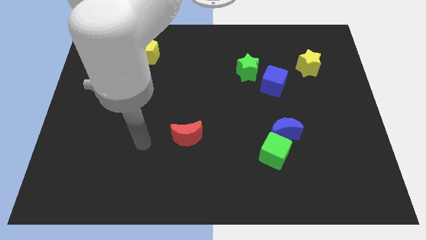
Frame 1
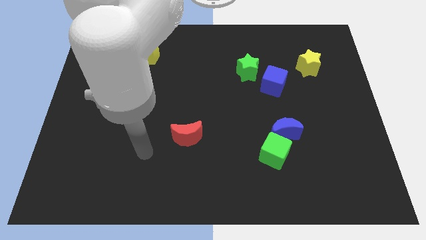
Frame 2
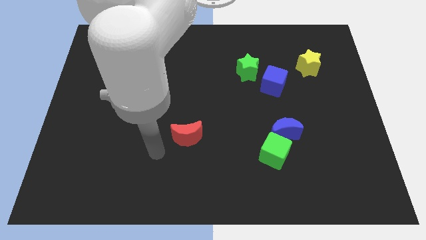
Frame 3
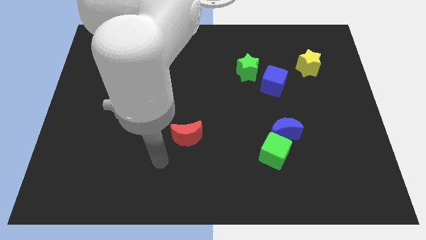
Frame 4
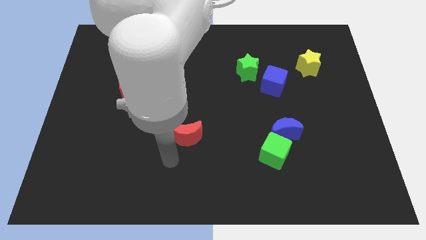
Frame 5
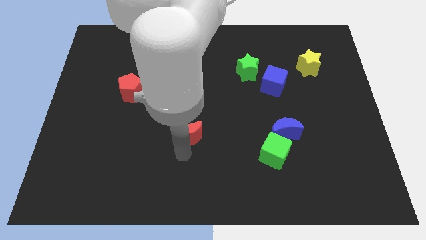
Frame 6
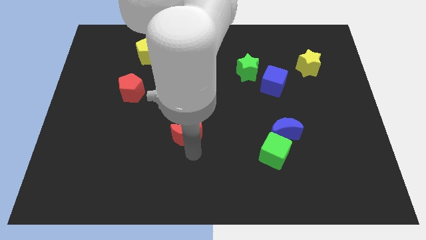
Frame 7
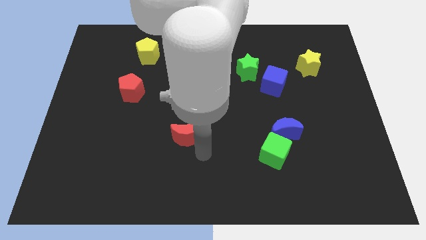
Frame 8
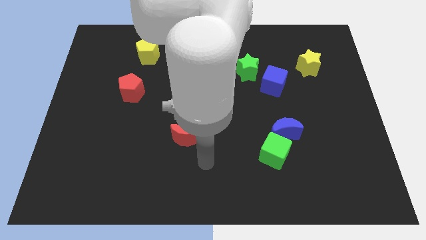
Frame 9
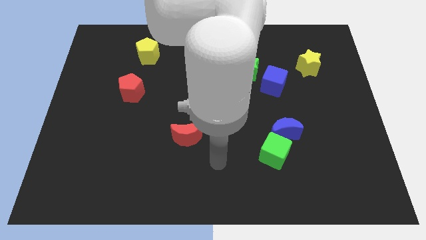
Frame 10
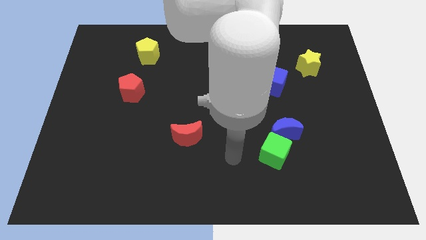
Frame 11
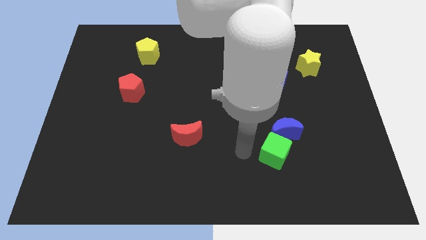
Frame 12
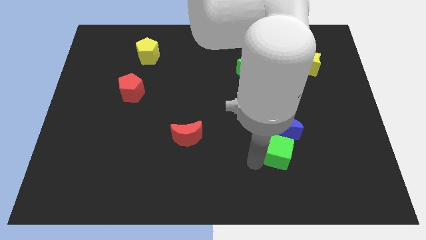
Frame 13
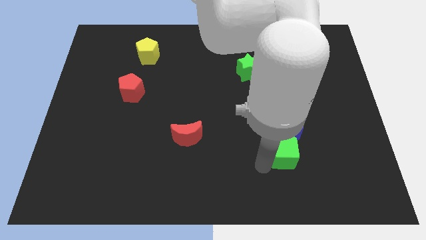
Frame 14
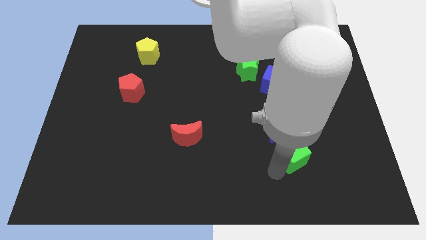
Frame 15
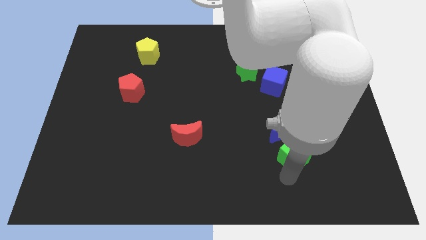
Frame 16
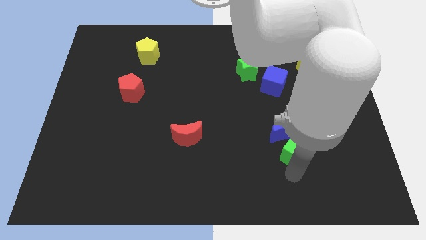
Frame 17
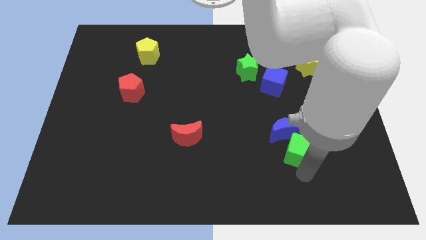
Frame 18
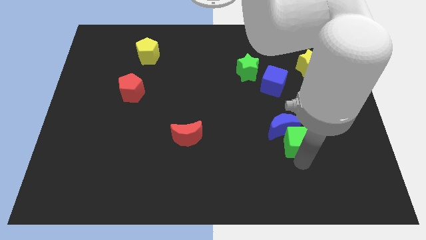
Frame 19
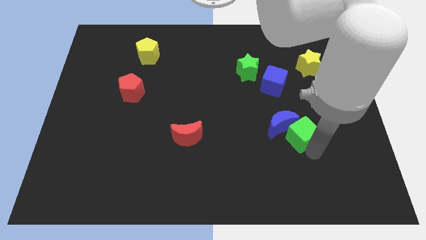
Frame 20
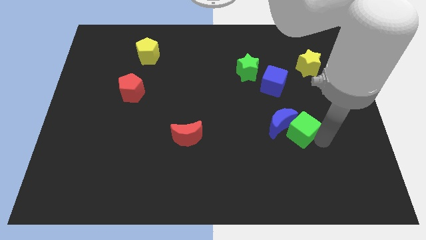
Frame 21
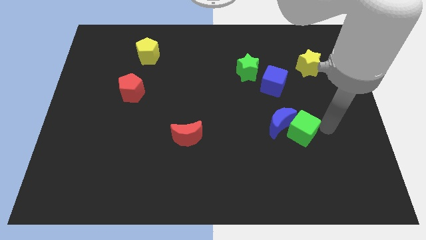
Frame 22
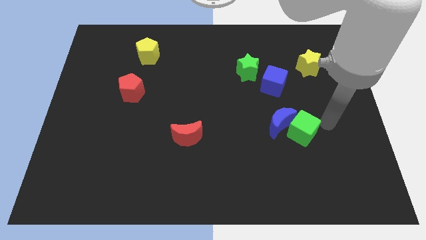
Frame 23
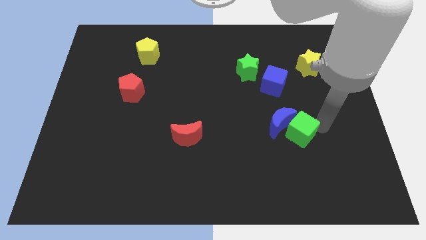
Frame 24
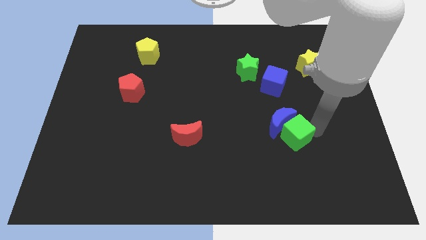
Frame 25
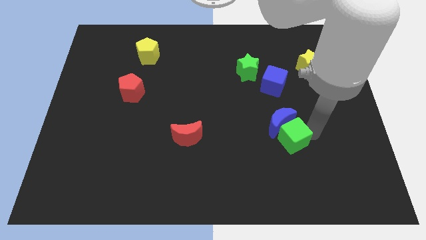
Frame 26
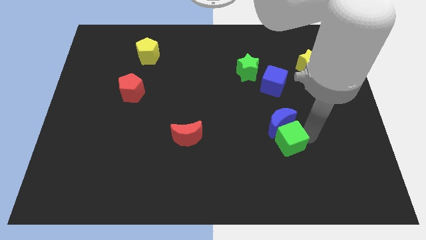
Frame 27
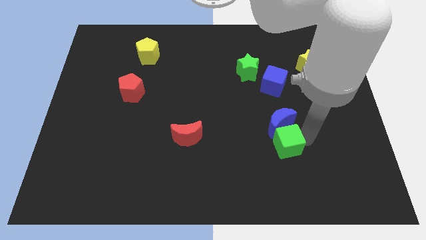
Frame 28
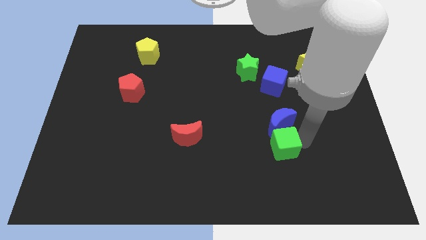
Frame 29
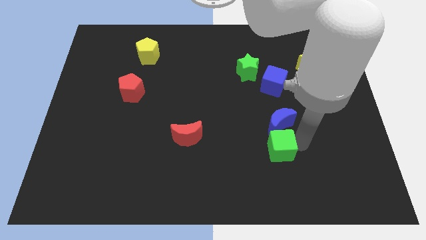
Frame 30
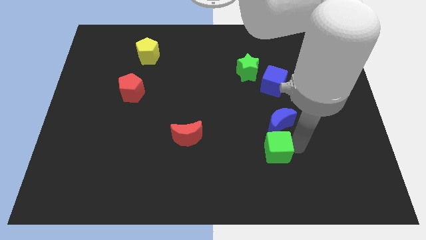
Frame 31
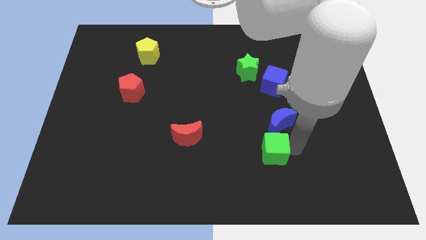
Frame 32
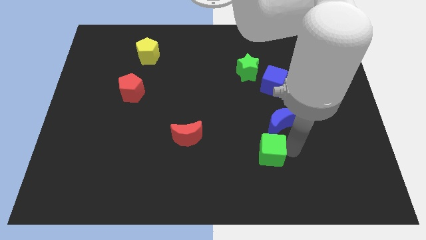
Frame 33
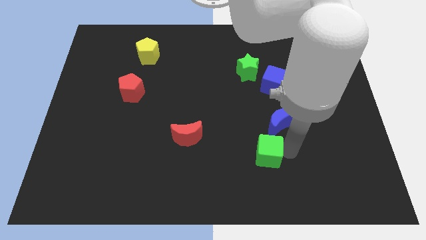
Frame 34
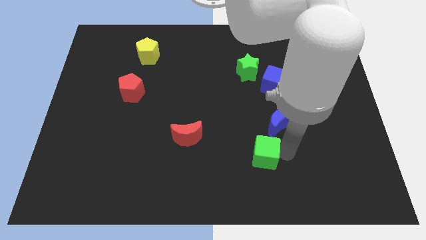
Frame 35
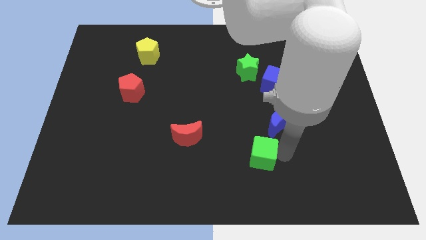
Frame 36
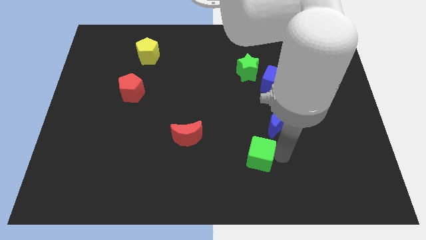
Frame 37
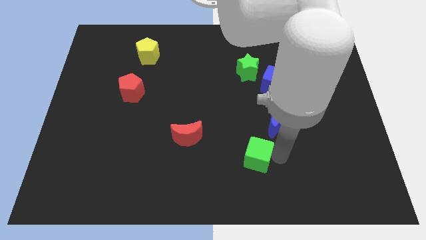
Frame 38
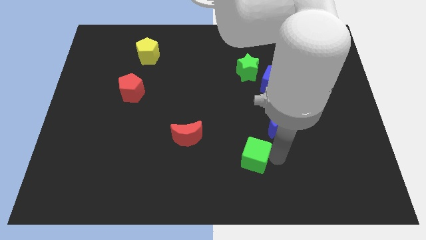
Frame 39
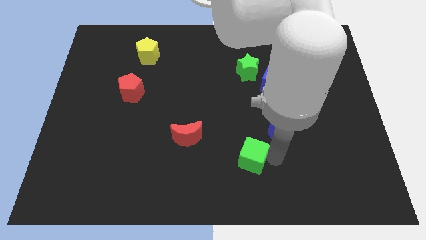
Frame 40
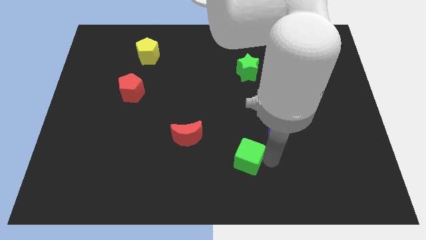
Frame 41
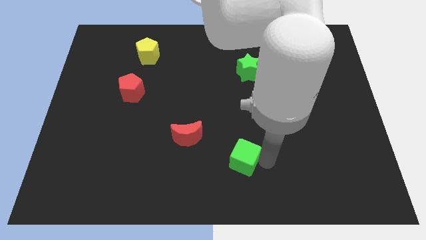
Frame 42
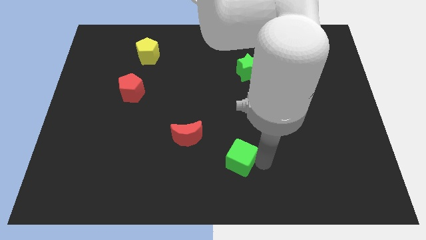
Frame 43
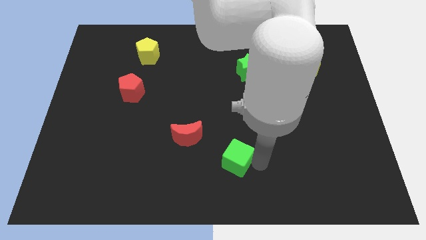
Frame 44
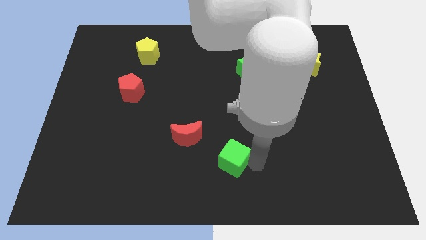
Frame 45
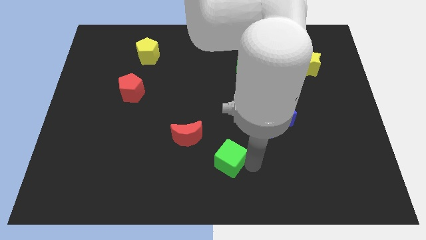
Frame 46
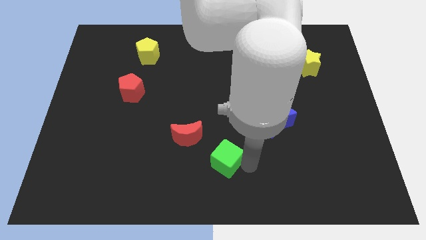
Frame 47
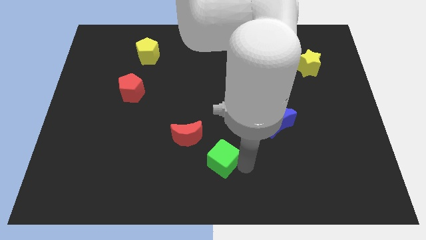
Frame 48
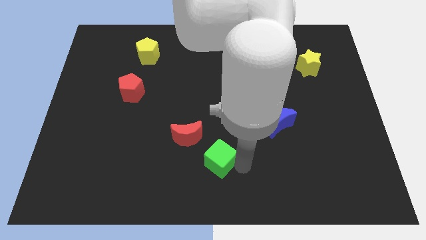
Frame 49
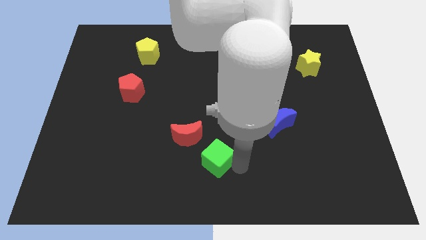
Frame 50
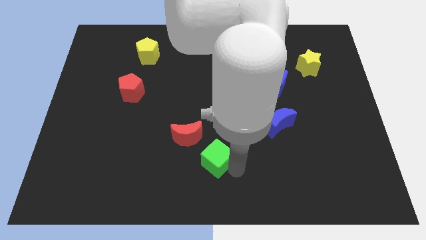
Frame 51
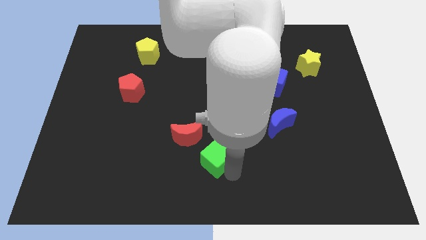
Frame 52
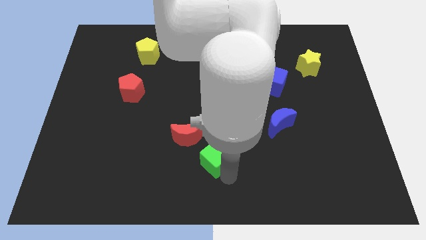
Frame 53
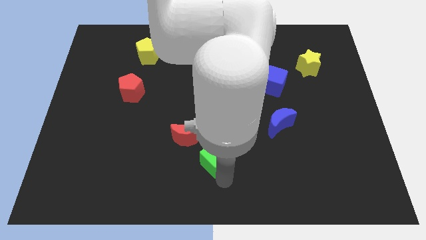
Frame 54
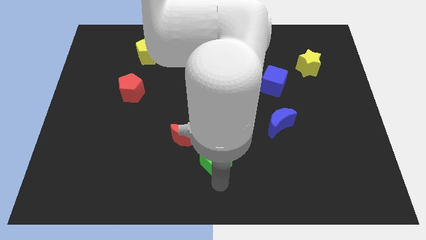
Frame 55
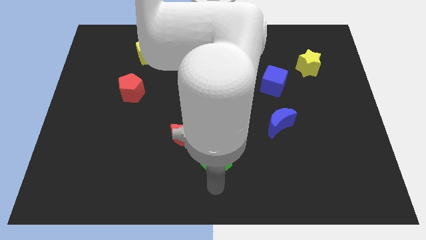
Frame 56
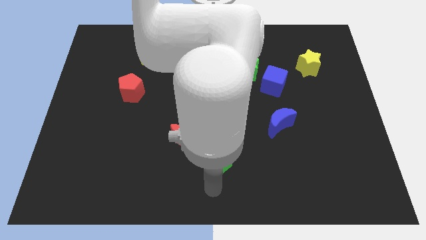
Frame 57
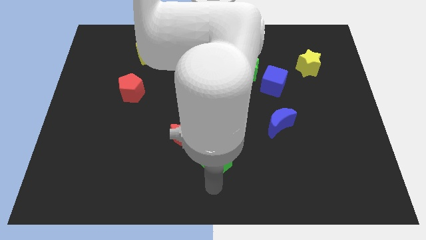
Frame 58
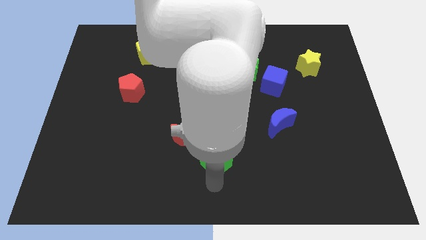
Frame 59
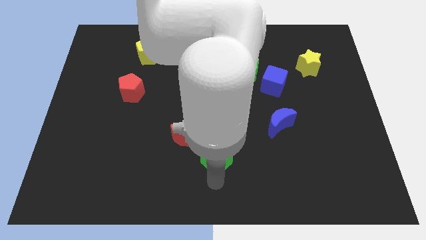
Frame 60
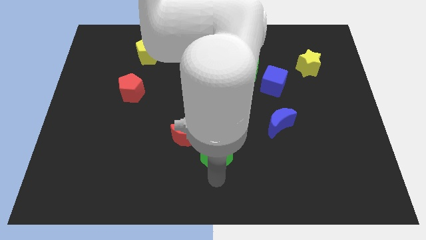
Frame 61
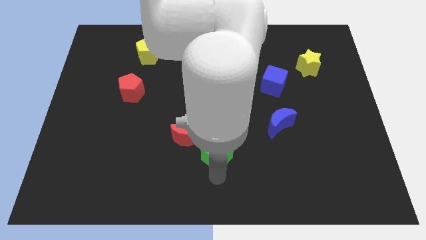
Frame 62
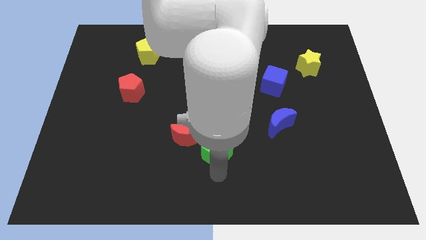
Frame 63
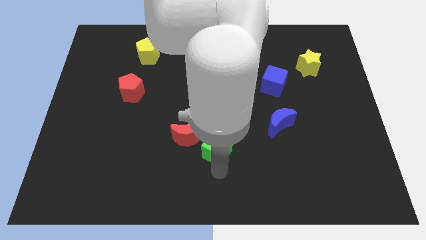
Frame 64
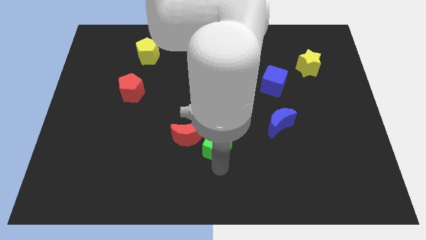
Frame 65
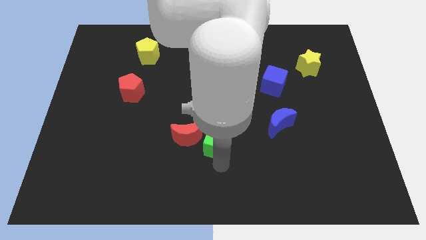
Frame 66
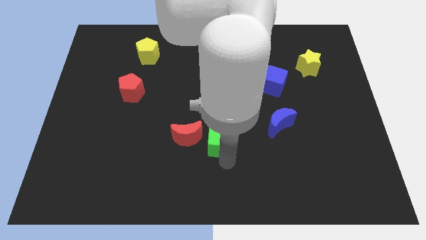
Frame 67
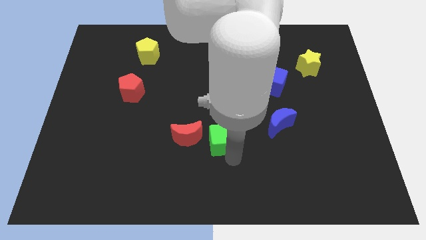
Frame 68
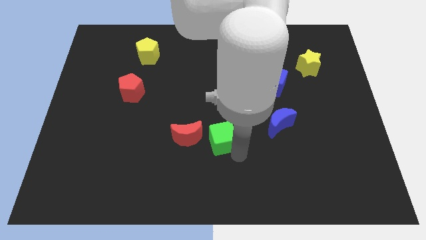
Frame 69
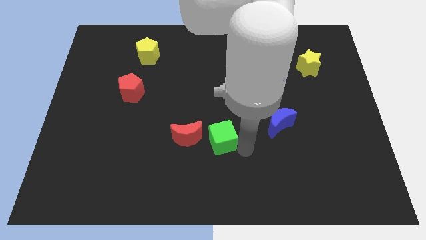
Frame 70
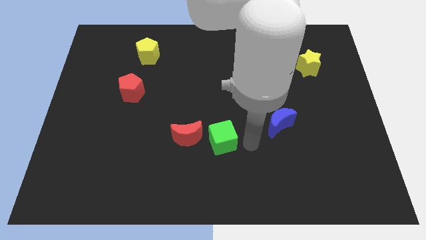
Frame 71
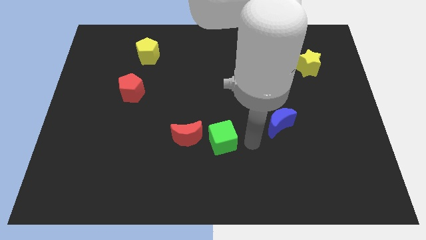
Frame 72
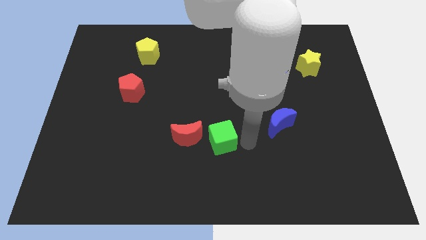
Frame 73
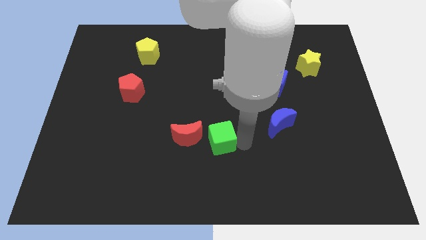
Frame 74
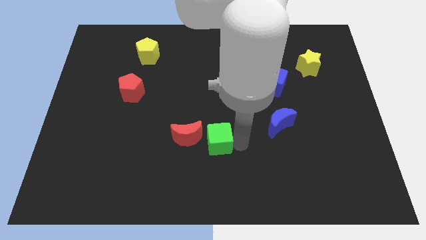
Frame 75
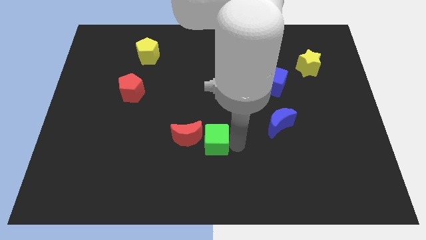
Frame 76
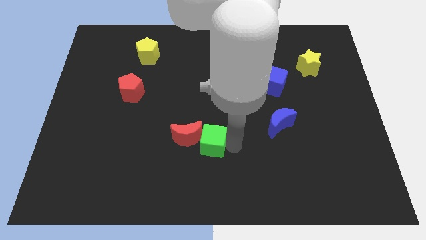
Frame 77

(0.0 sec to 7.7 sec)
move the green cube towards the red moon
